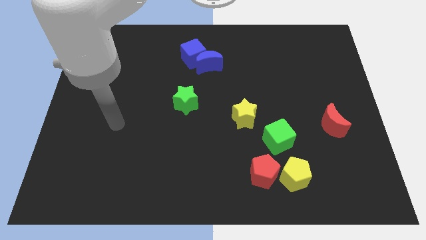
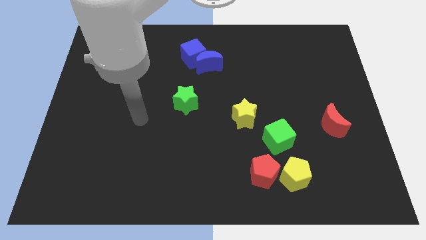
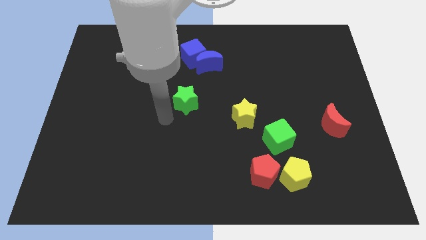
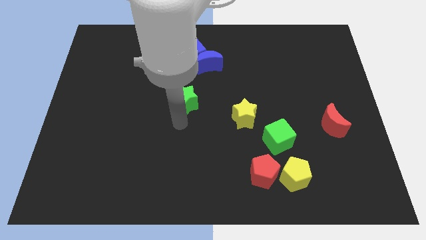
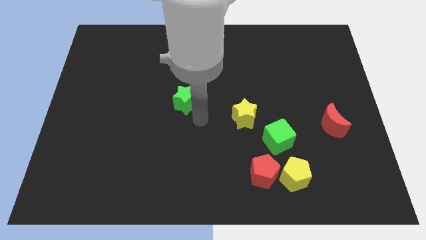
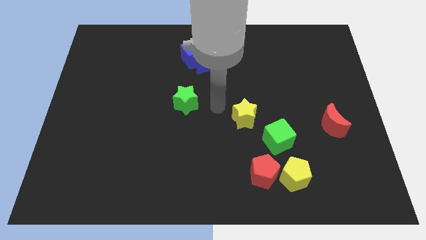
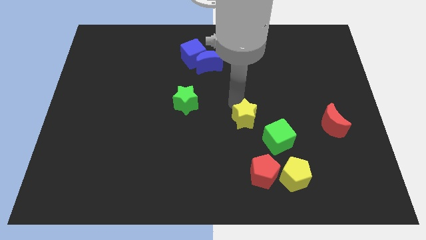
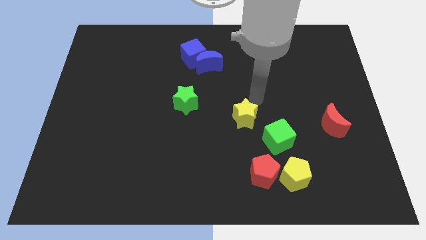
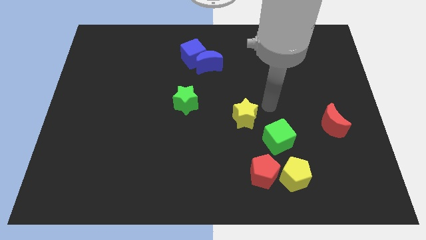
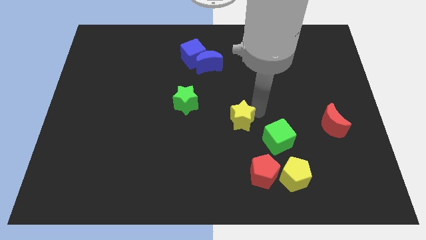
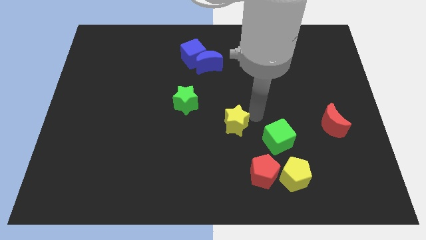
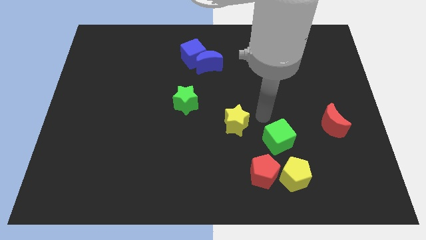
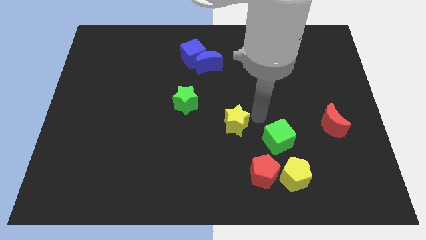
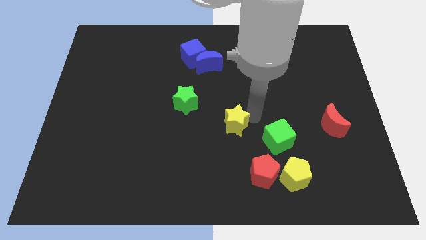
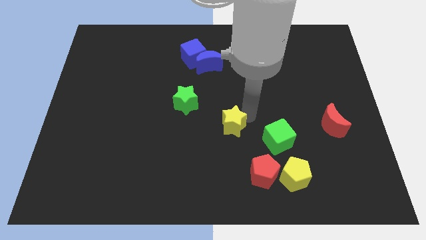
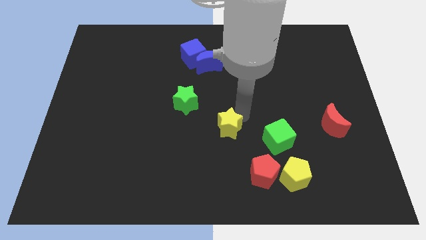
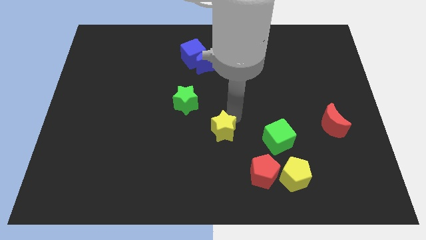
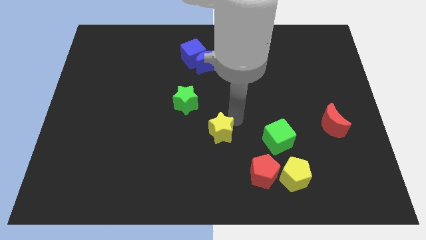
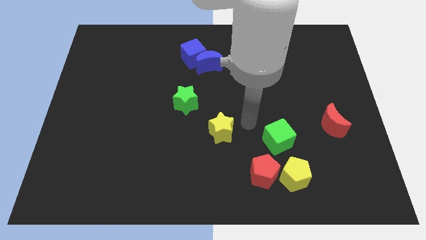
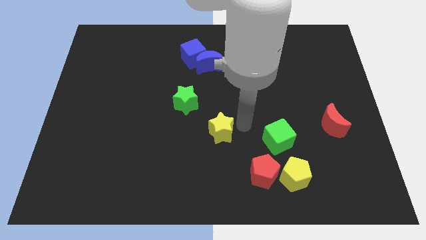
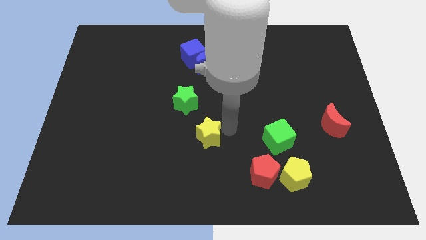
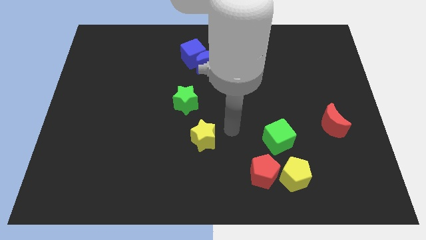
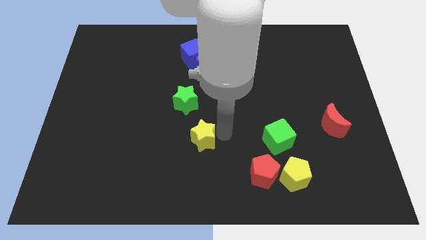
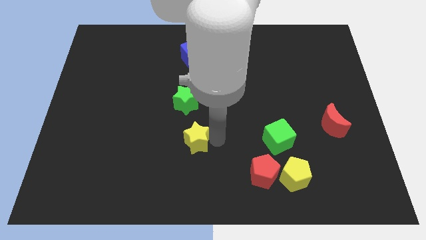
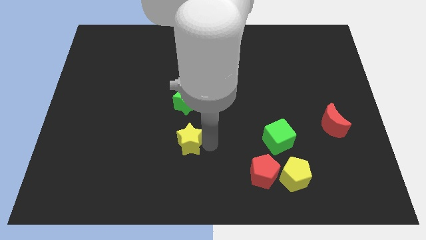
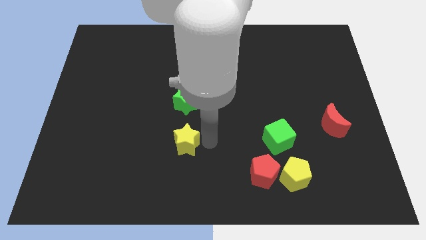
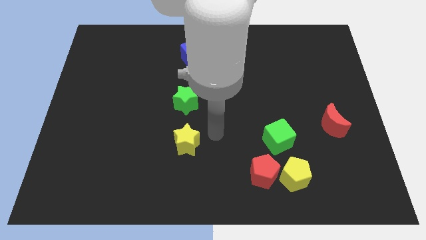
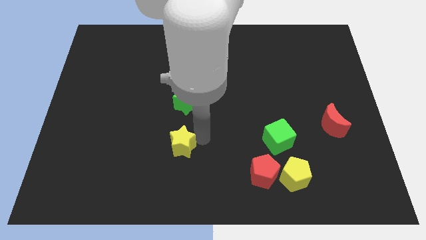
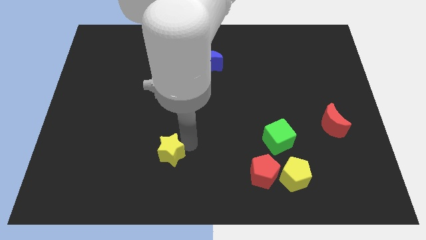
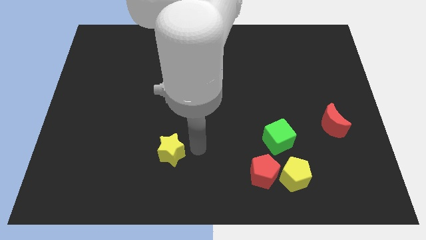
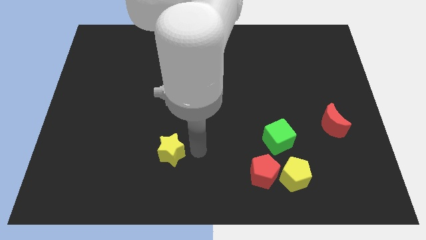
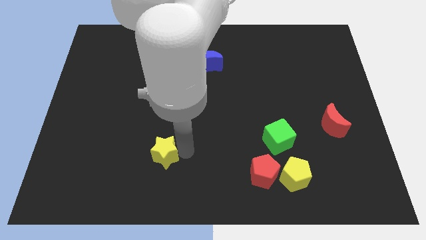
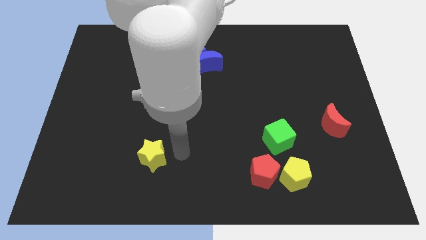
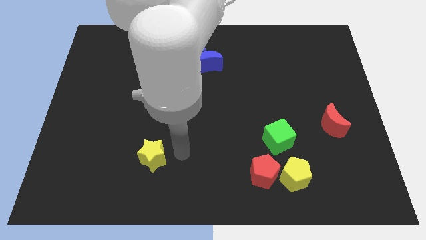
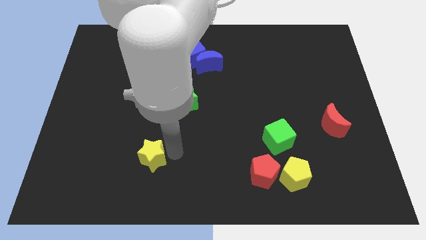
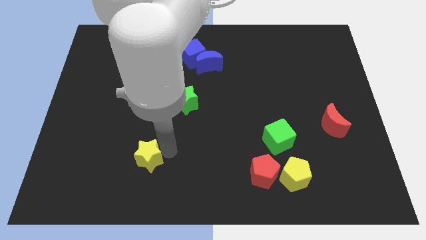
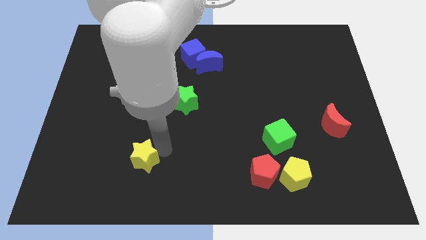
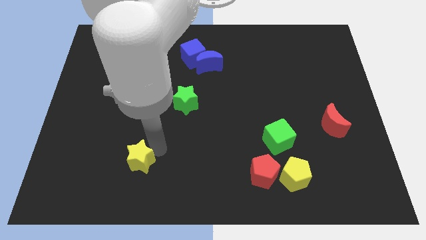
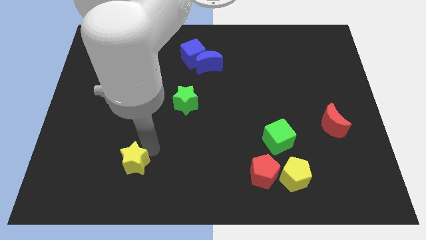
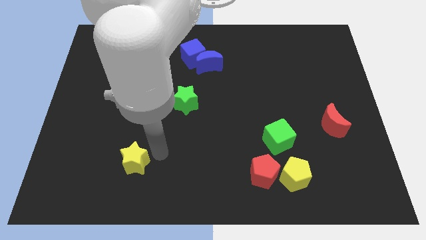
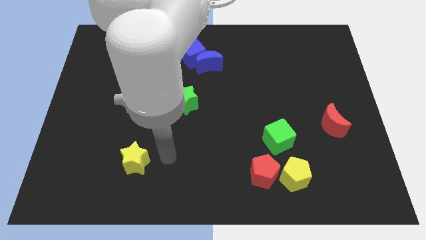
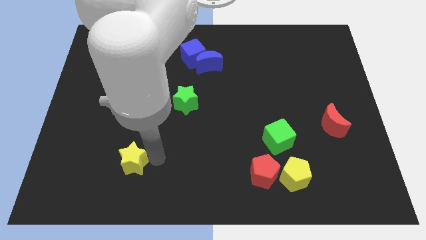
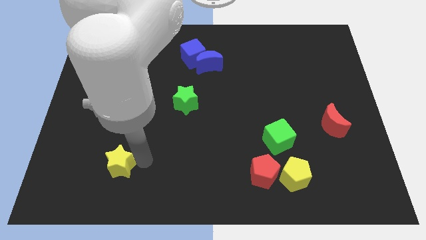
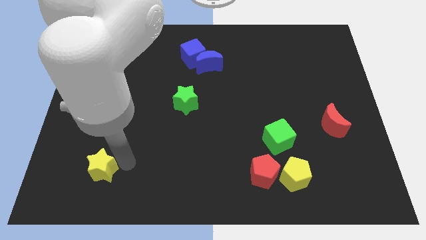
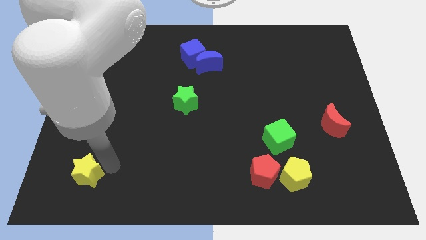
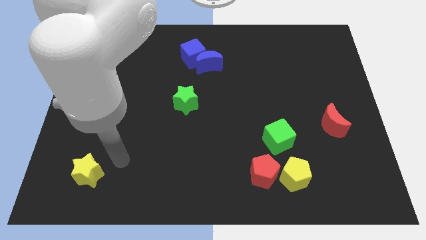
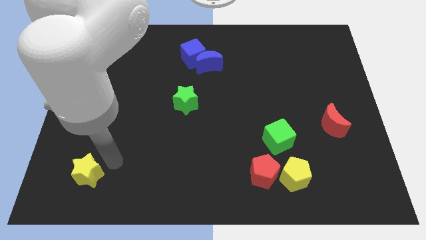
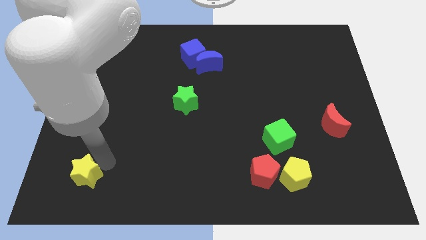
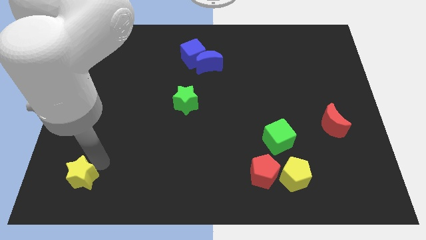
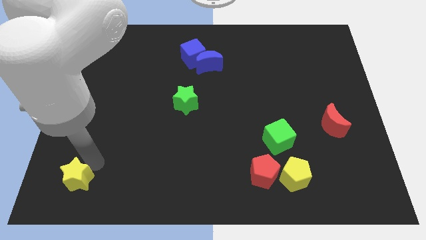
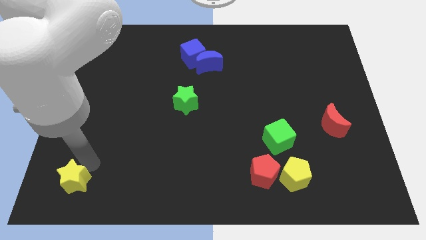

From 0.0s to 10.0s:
slide the yellow star to the bottom left corner

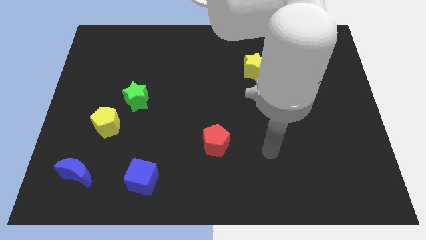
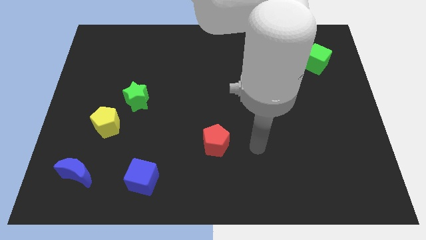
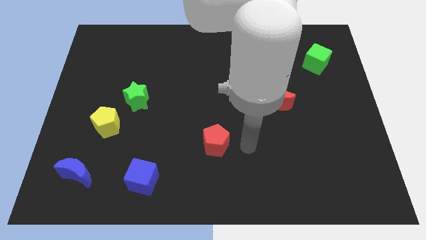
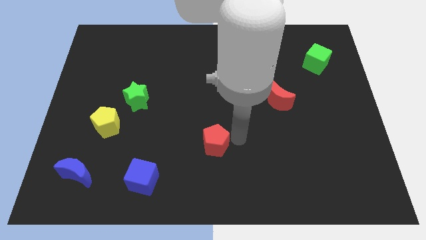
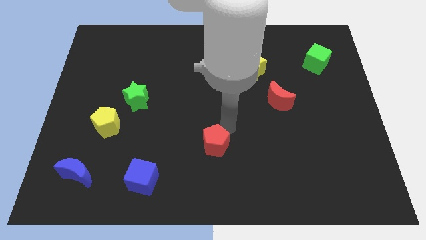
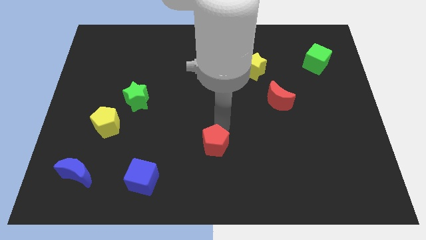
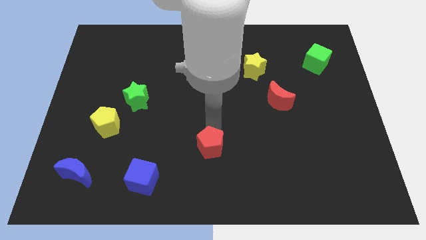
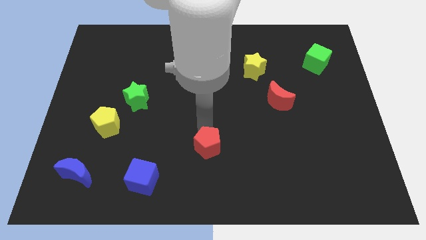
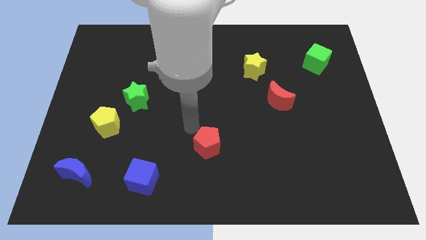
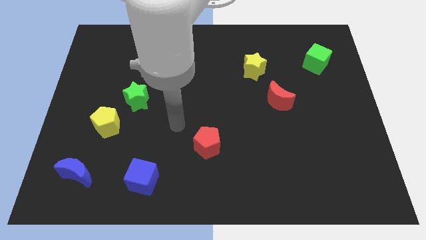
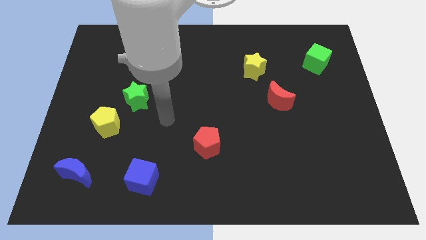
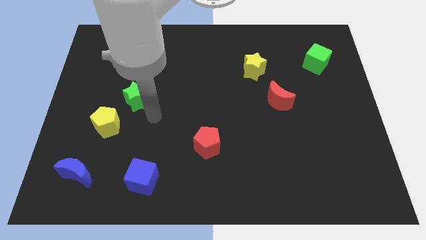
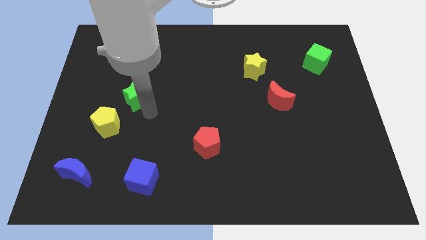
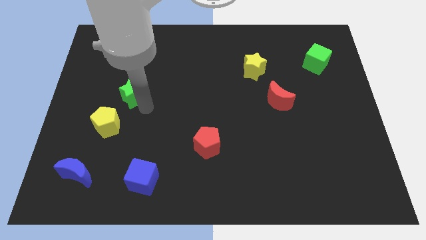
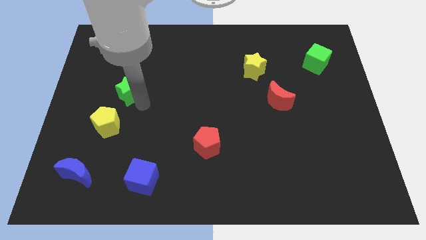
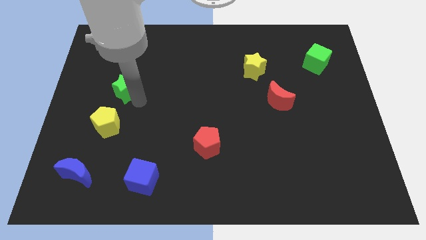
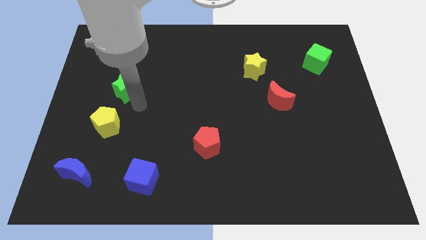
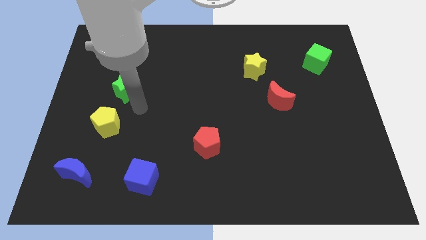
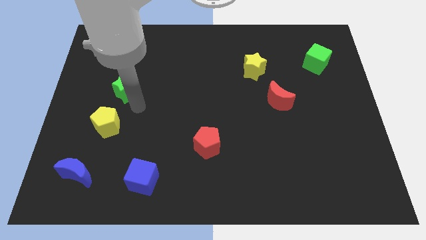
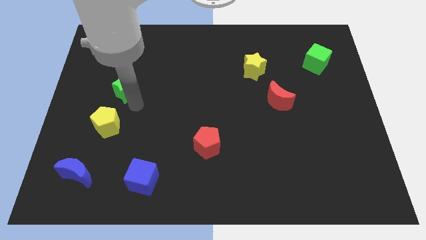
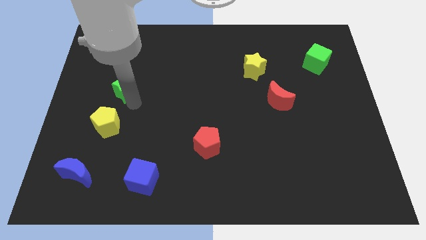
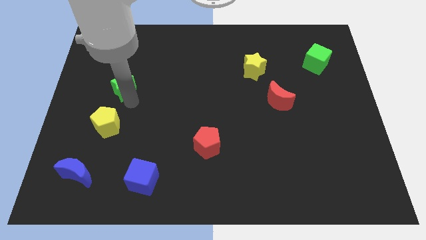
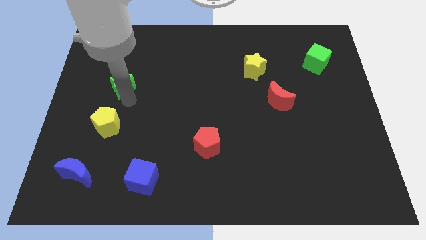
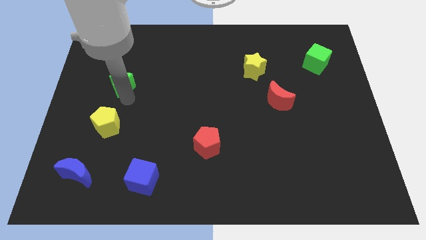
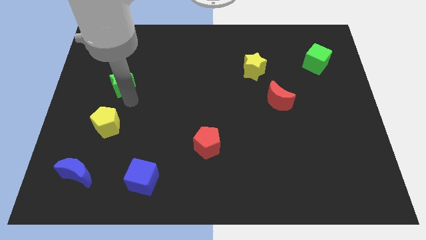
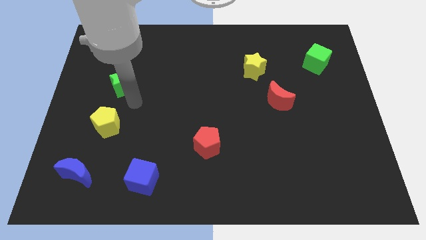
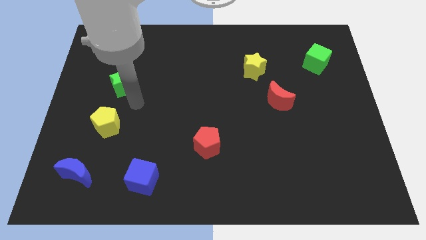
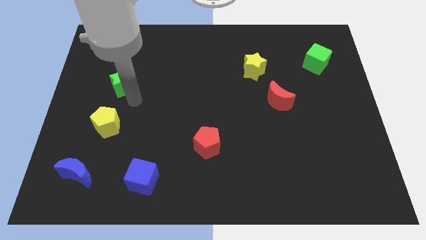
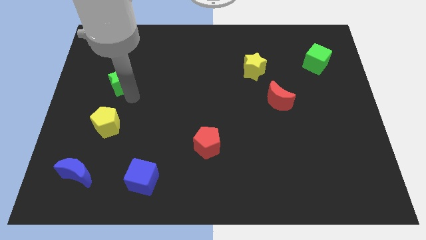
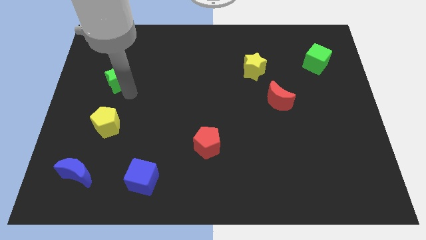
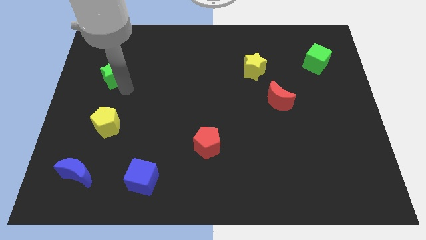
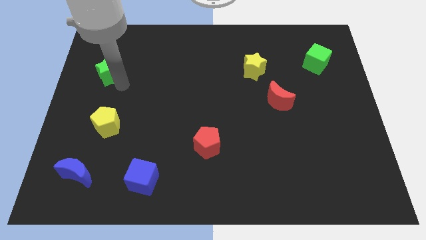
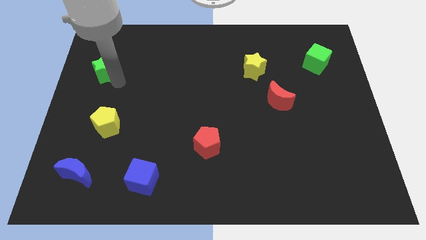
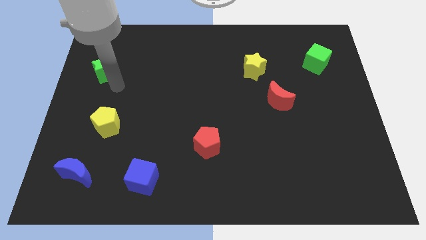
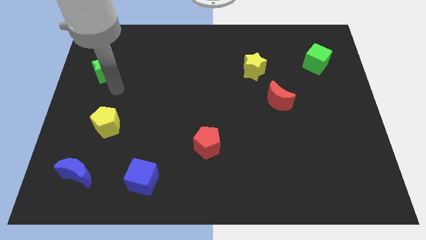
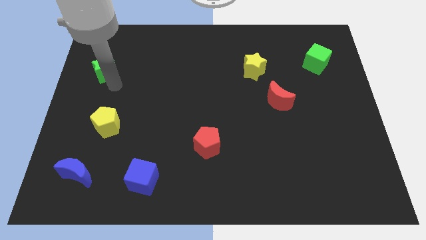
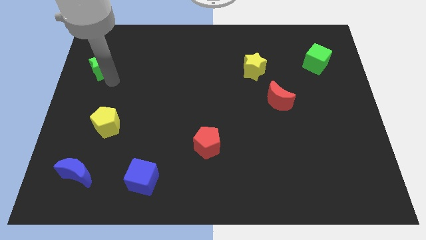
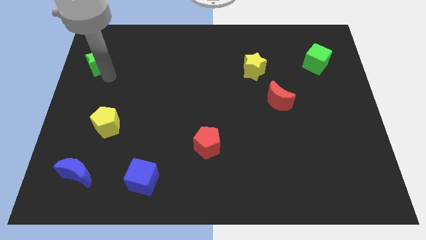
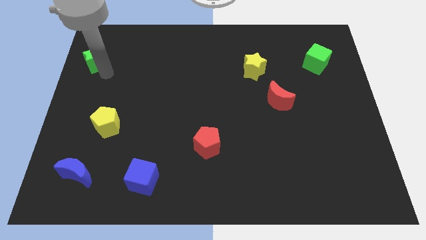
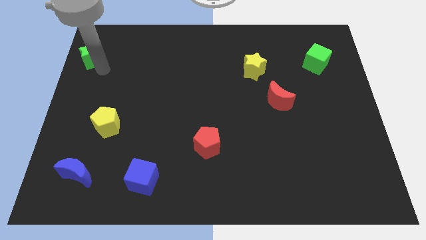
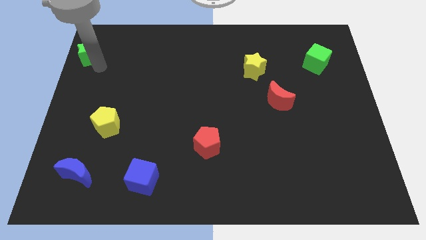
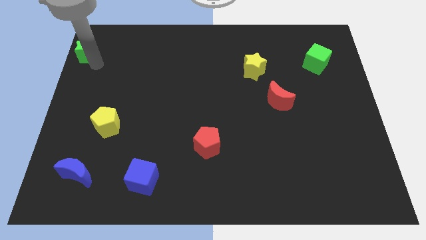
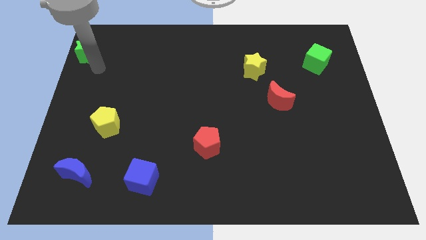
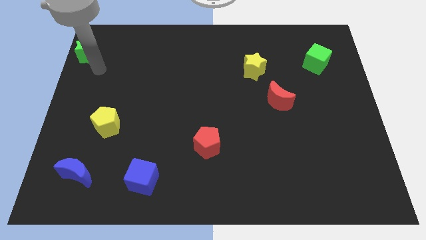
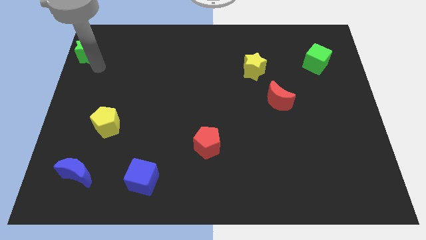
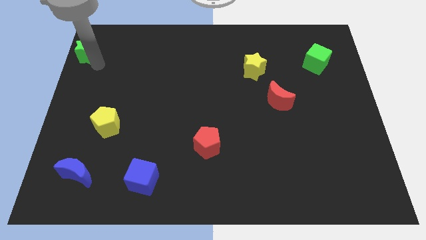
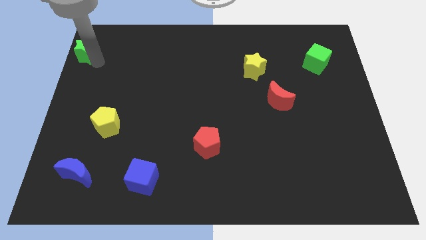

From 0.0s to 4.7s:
move the green star to the top left corner
